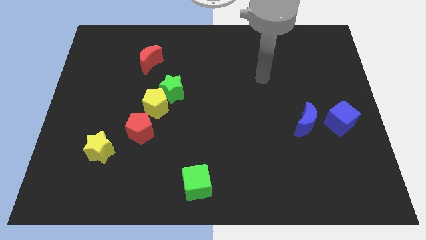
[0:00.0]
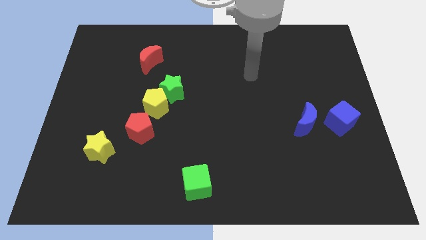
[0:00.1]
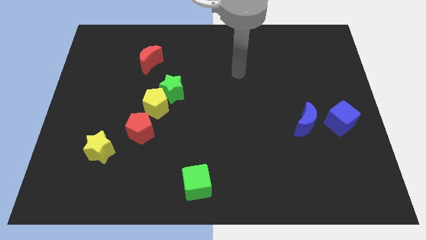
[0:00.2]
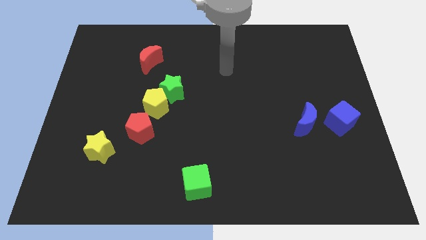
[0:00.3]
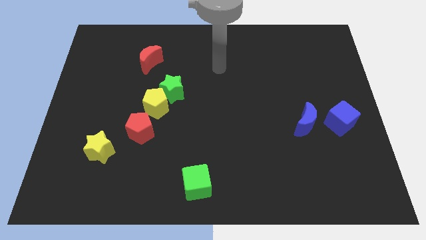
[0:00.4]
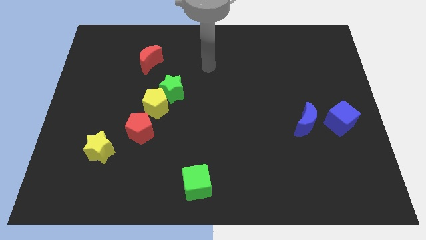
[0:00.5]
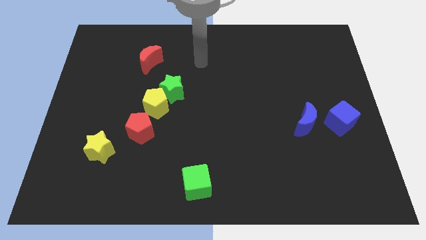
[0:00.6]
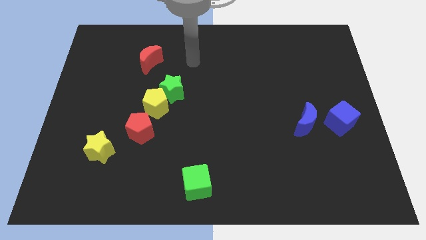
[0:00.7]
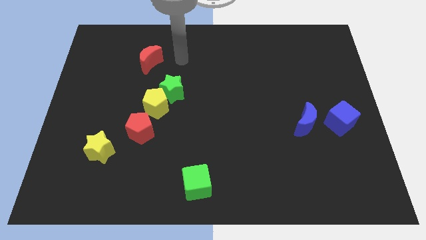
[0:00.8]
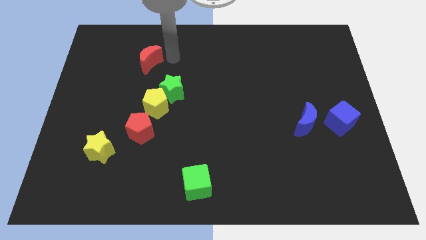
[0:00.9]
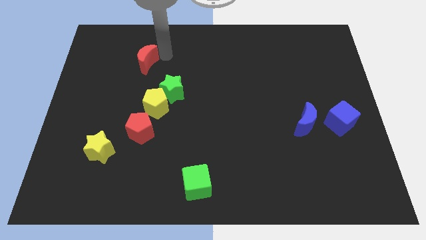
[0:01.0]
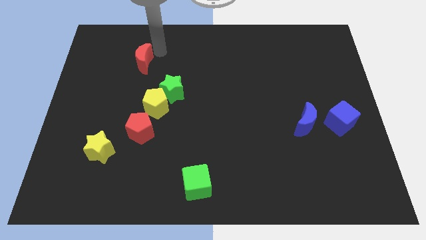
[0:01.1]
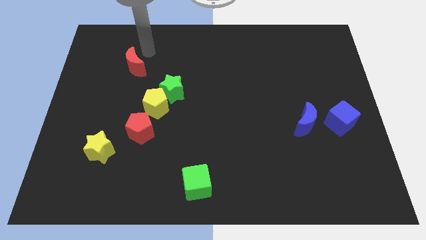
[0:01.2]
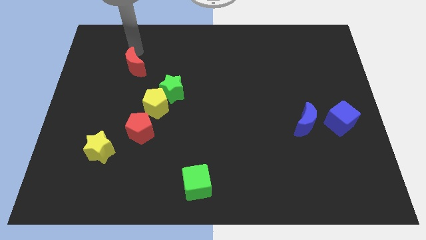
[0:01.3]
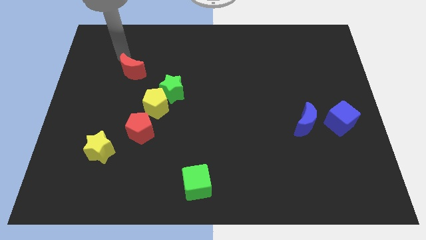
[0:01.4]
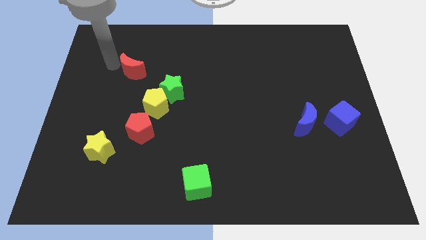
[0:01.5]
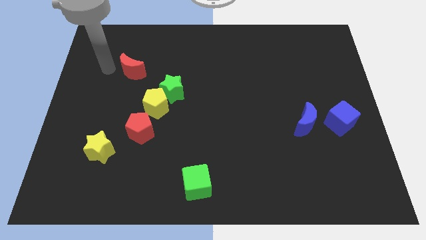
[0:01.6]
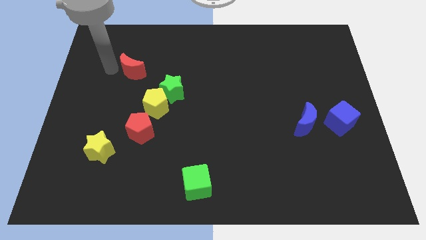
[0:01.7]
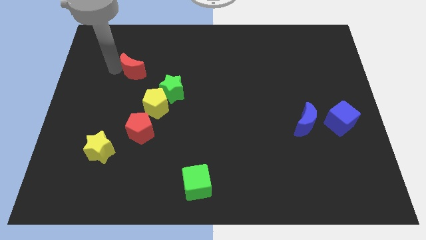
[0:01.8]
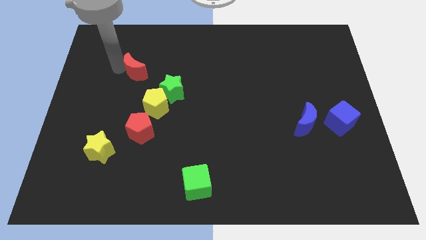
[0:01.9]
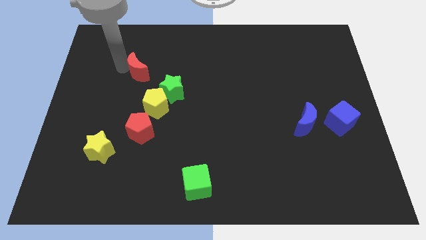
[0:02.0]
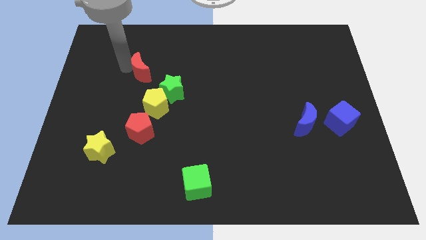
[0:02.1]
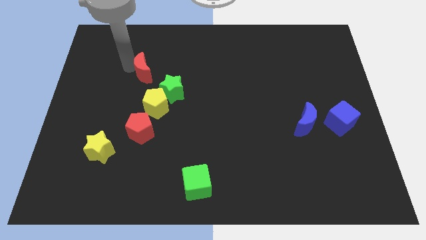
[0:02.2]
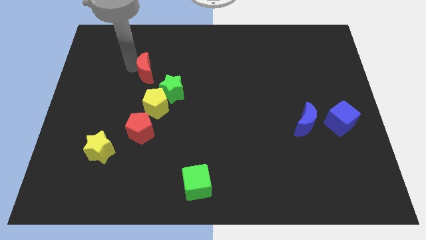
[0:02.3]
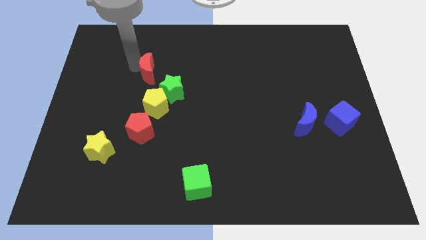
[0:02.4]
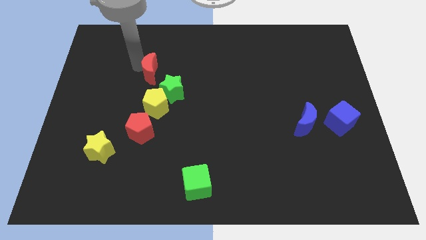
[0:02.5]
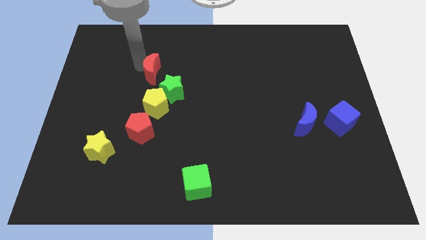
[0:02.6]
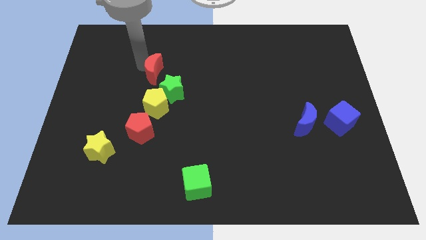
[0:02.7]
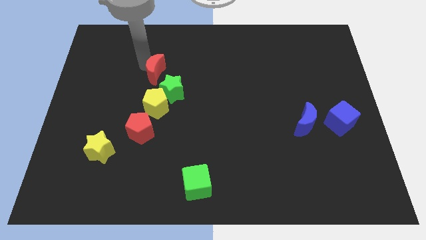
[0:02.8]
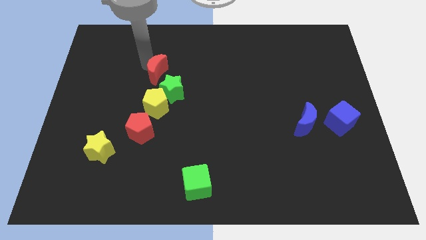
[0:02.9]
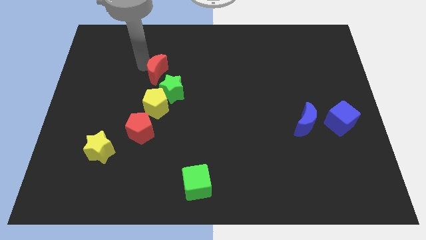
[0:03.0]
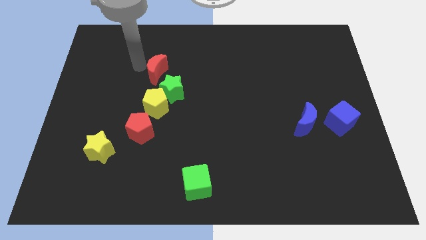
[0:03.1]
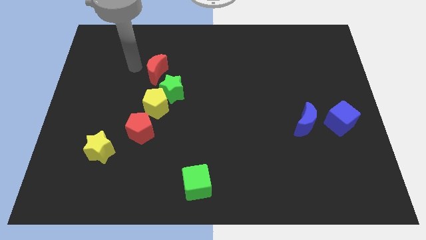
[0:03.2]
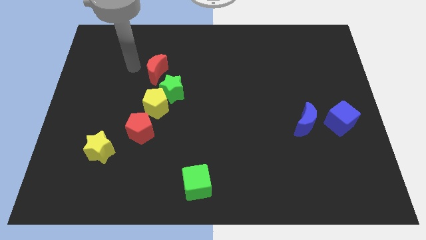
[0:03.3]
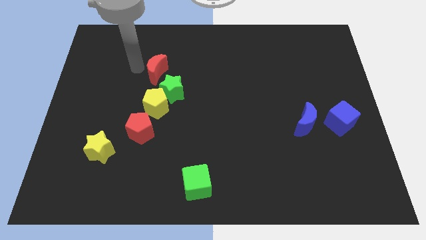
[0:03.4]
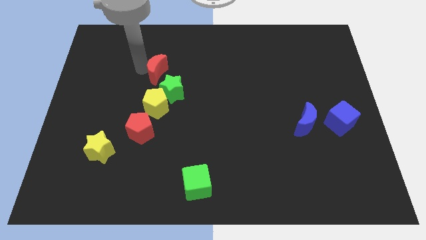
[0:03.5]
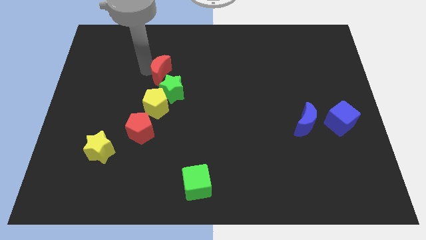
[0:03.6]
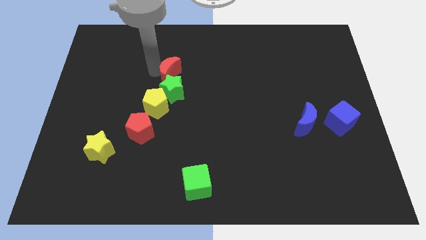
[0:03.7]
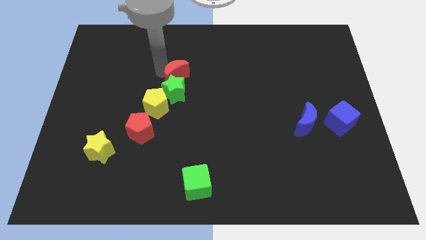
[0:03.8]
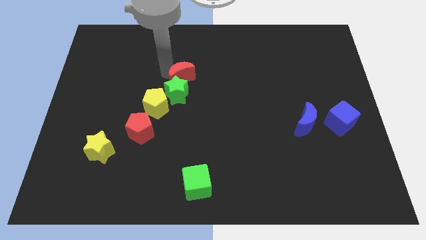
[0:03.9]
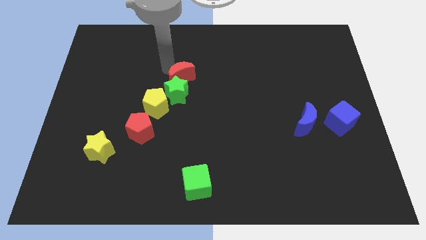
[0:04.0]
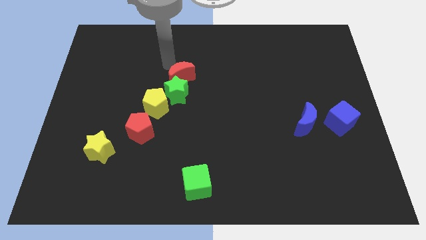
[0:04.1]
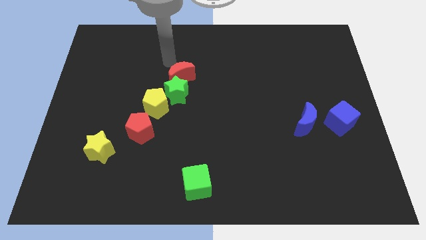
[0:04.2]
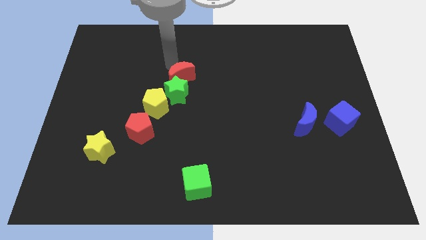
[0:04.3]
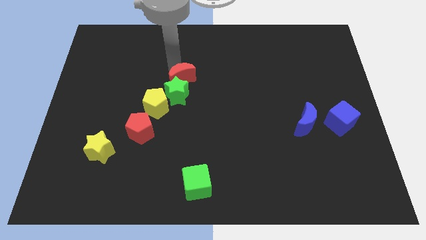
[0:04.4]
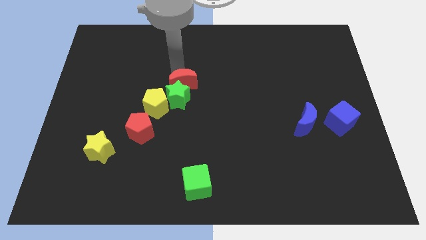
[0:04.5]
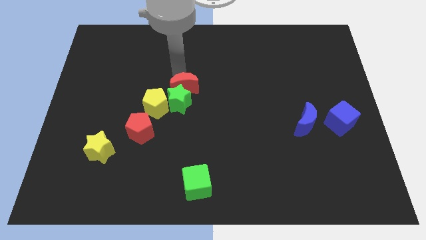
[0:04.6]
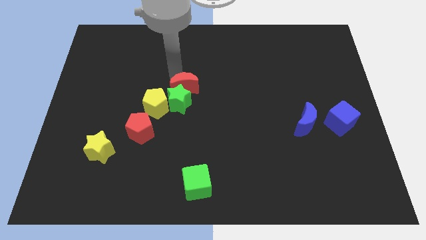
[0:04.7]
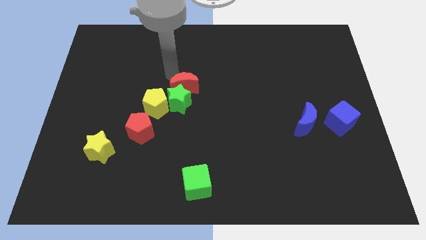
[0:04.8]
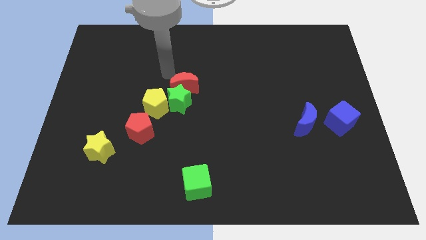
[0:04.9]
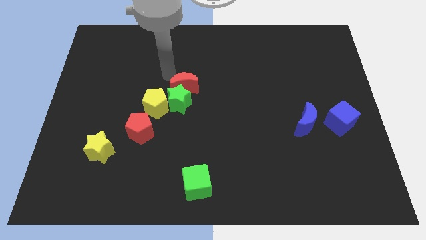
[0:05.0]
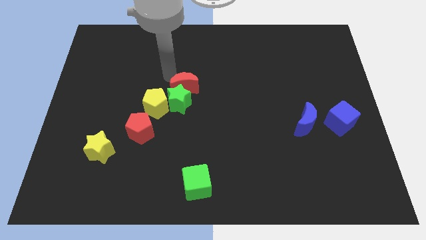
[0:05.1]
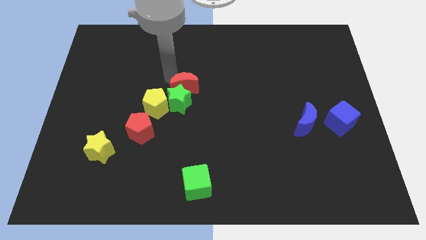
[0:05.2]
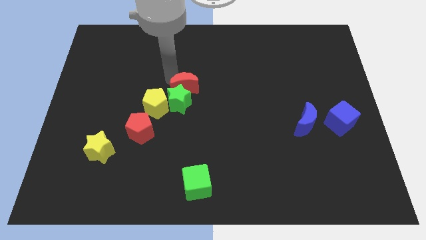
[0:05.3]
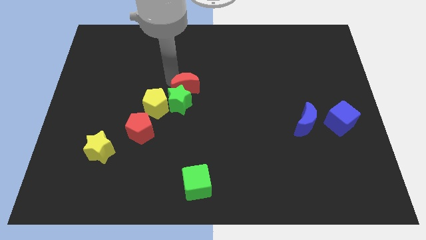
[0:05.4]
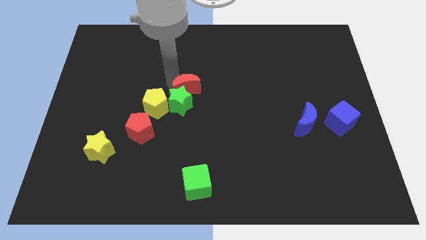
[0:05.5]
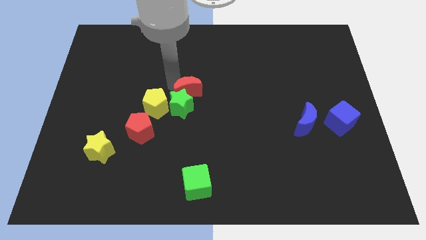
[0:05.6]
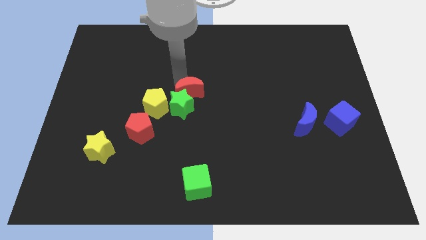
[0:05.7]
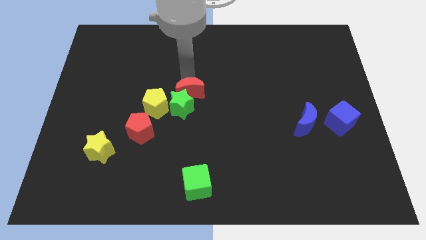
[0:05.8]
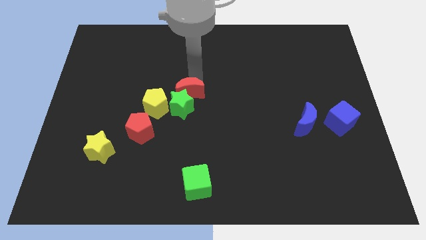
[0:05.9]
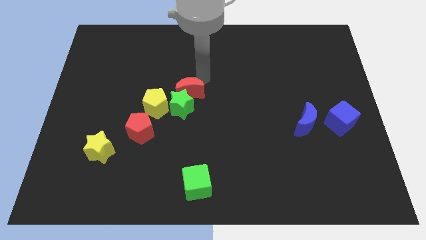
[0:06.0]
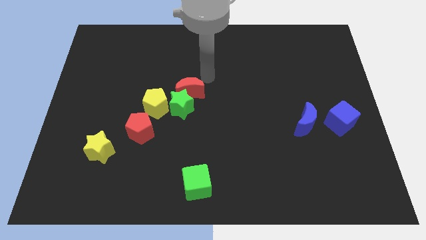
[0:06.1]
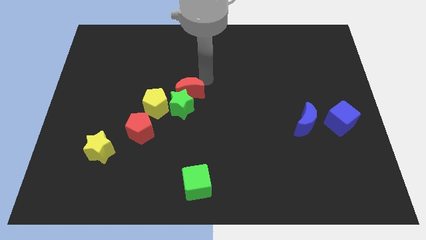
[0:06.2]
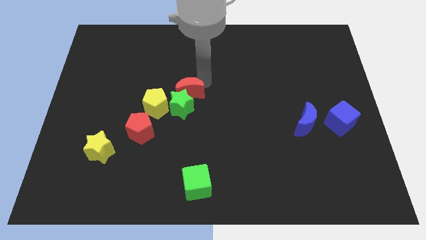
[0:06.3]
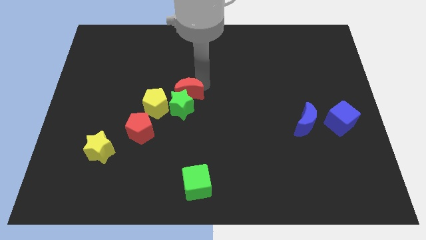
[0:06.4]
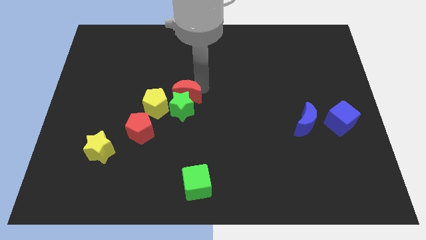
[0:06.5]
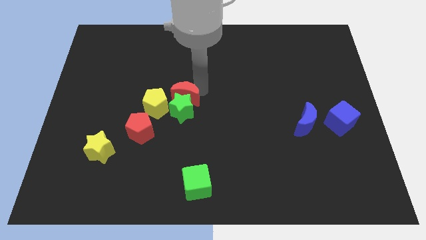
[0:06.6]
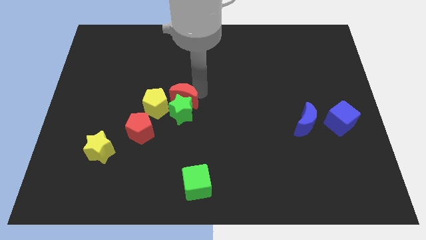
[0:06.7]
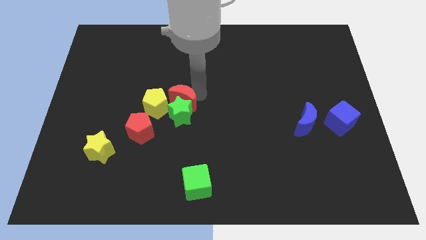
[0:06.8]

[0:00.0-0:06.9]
slide the red moon to the top right of the red pentagon
